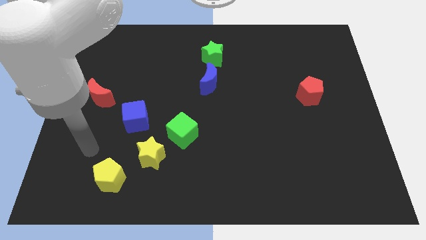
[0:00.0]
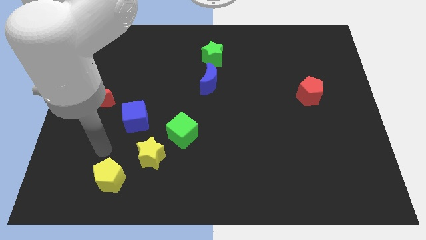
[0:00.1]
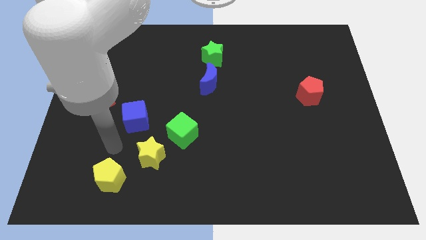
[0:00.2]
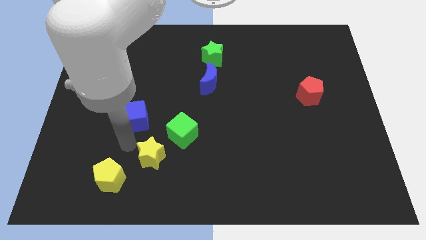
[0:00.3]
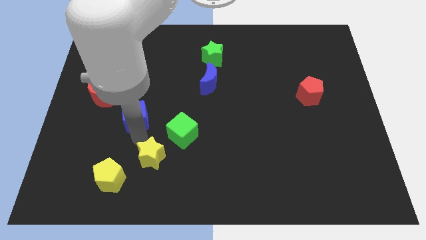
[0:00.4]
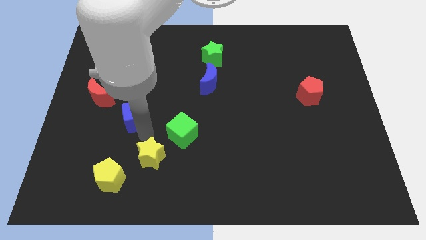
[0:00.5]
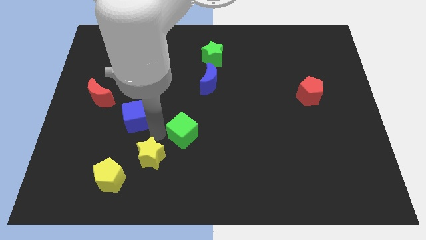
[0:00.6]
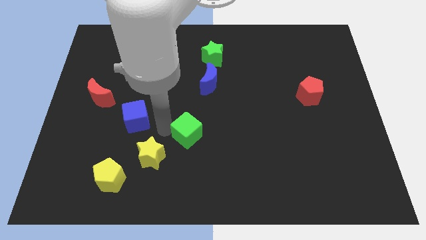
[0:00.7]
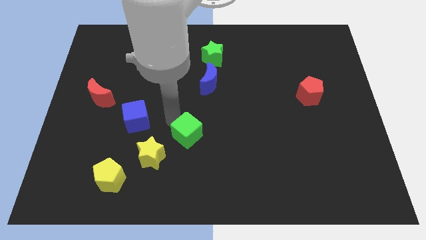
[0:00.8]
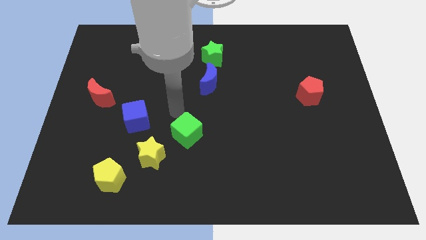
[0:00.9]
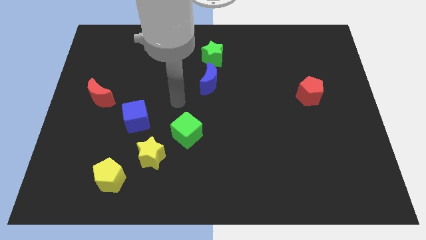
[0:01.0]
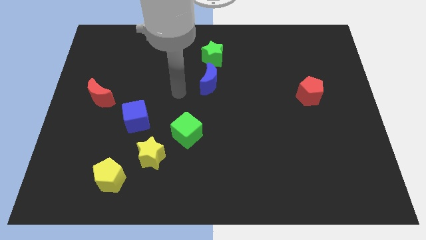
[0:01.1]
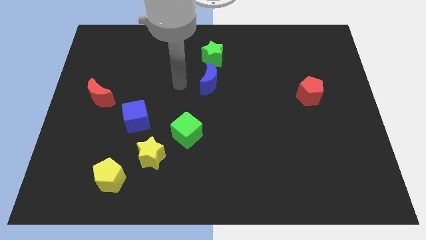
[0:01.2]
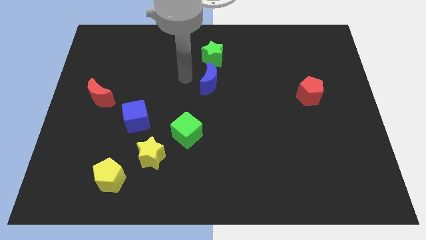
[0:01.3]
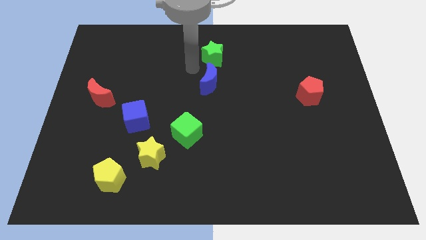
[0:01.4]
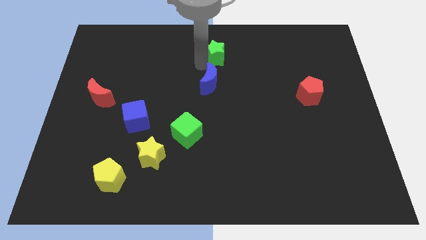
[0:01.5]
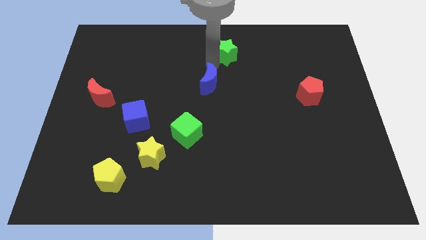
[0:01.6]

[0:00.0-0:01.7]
move the blue moon away from the green star

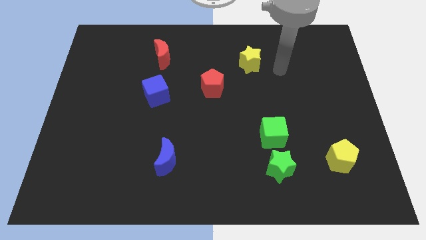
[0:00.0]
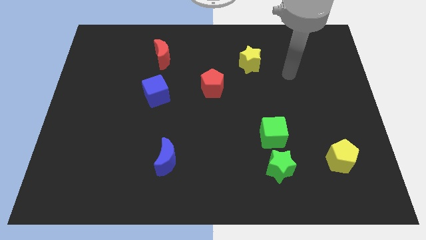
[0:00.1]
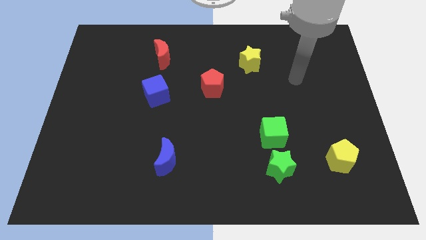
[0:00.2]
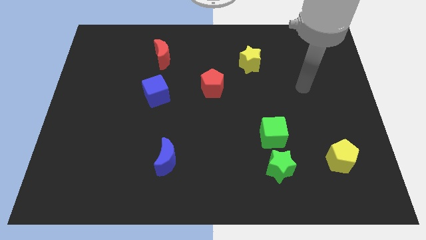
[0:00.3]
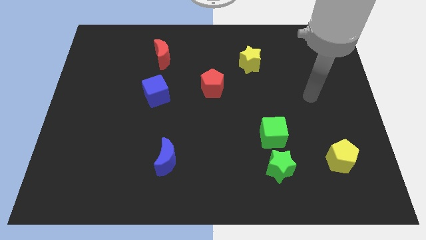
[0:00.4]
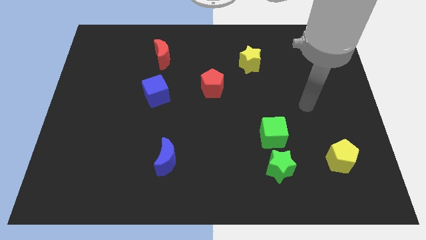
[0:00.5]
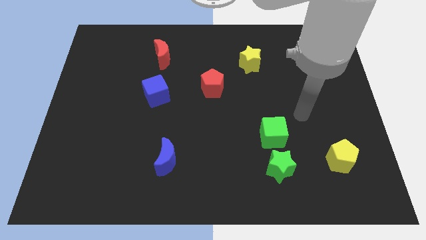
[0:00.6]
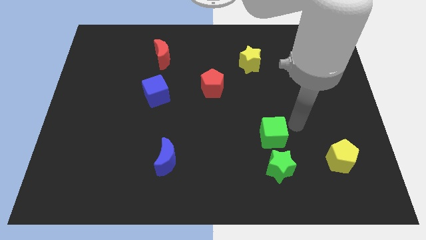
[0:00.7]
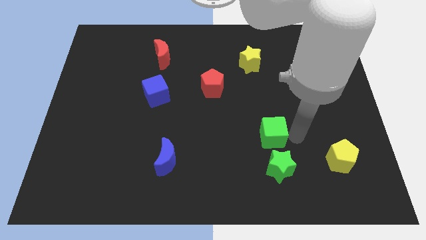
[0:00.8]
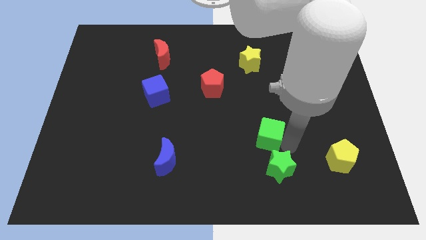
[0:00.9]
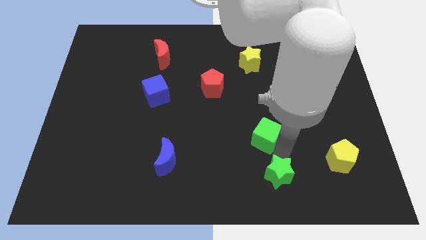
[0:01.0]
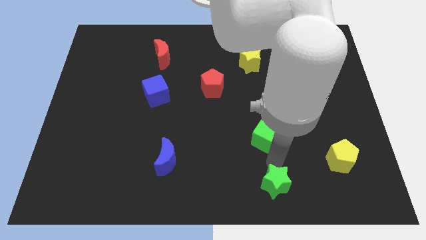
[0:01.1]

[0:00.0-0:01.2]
move the green cube away from the green star

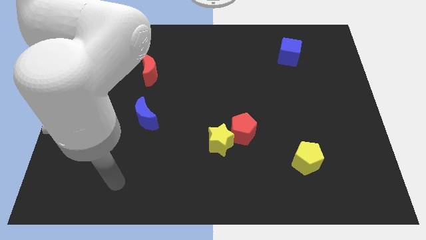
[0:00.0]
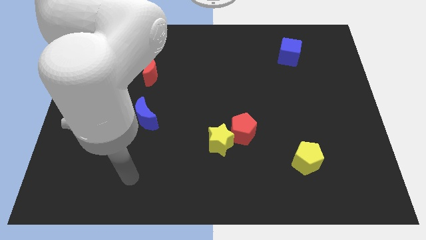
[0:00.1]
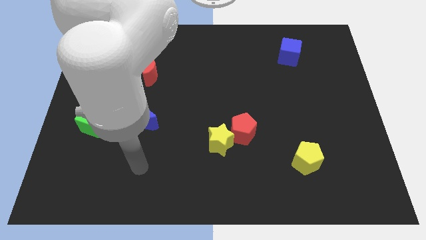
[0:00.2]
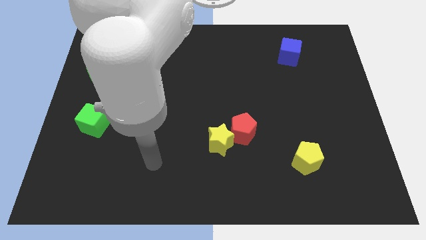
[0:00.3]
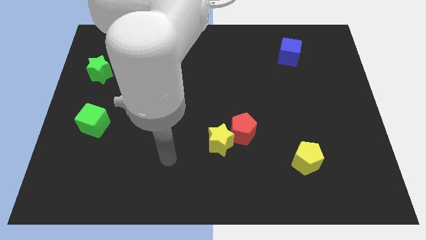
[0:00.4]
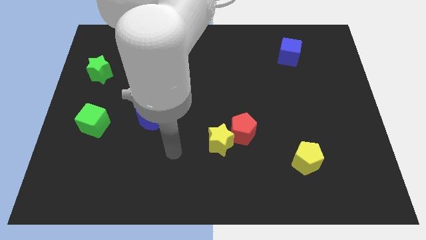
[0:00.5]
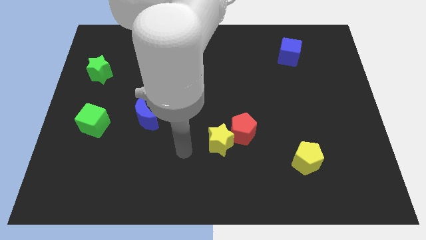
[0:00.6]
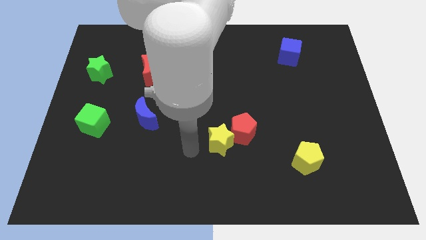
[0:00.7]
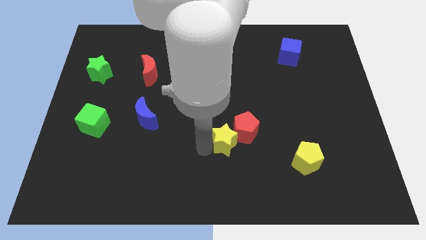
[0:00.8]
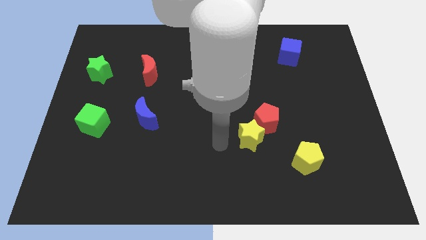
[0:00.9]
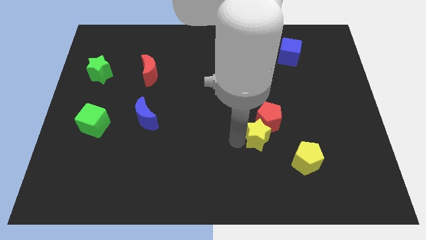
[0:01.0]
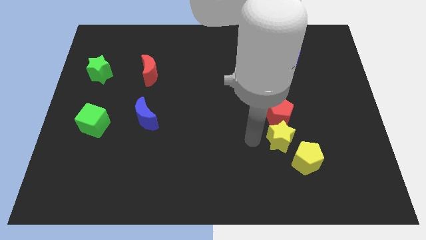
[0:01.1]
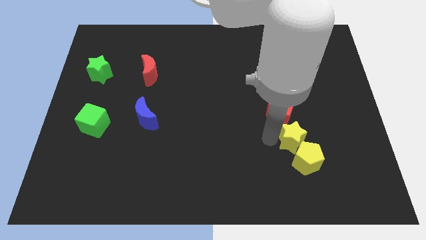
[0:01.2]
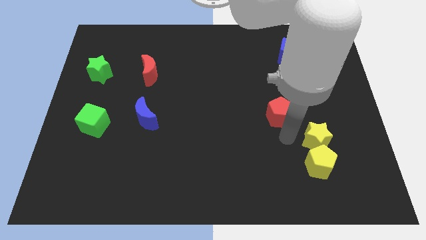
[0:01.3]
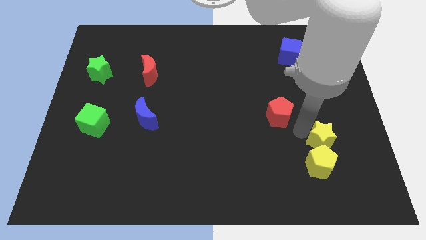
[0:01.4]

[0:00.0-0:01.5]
pull the red pentagon apart from the yellow star

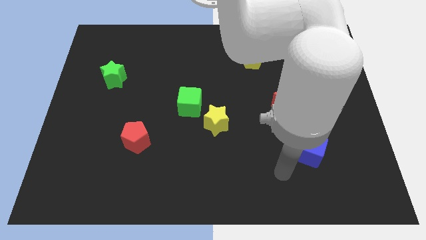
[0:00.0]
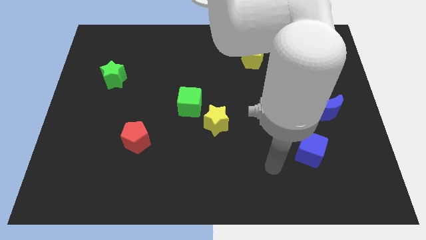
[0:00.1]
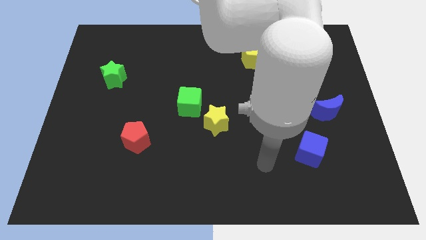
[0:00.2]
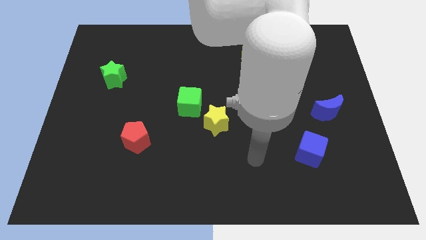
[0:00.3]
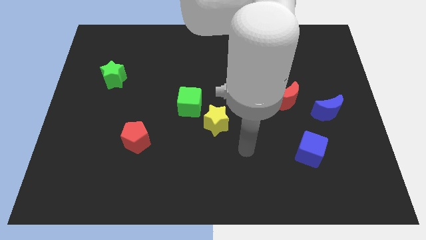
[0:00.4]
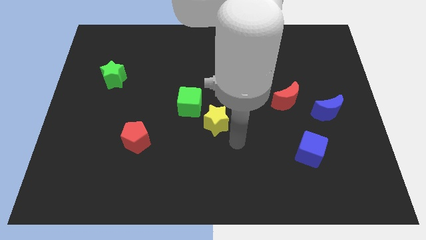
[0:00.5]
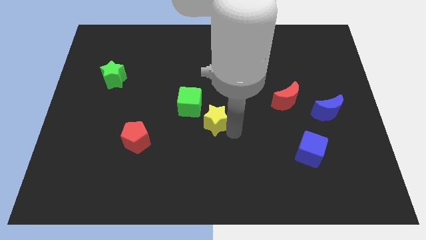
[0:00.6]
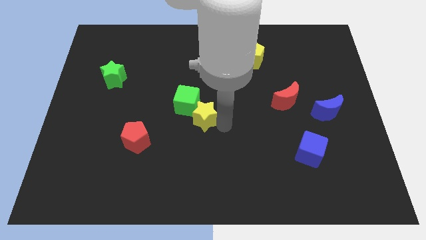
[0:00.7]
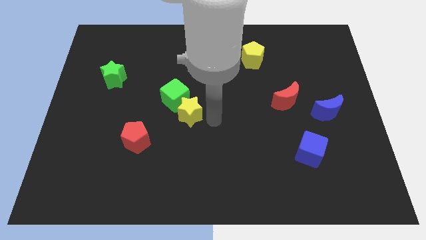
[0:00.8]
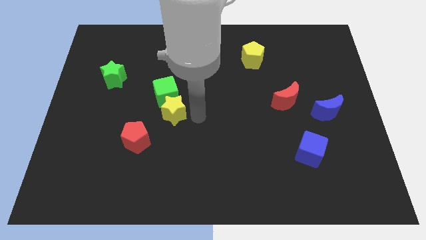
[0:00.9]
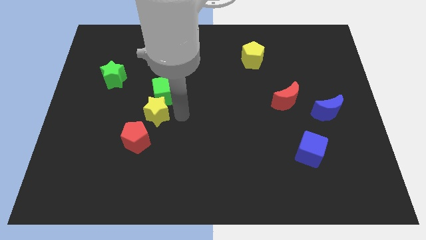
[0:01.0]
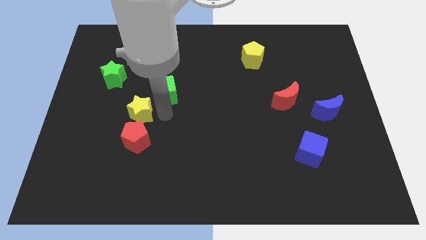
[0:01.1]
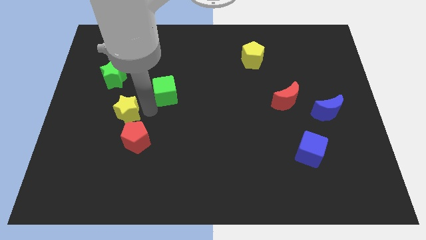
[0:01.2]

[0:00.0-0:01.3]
move the green cube away from the yellow star

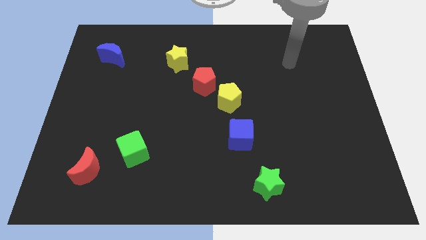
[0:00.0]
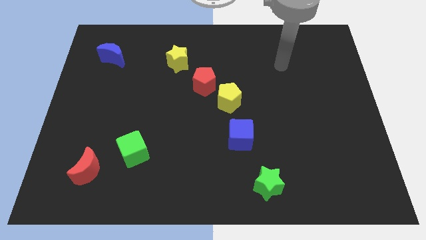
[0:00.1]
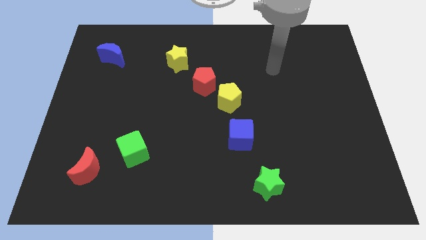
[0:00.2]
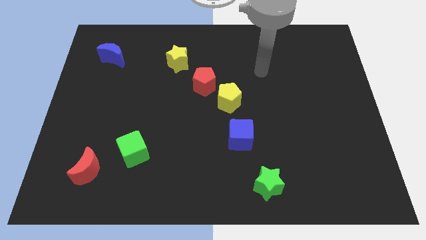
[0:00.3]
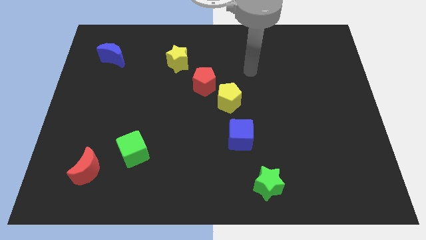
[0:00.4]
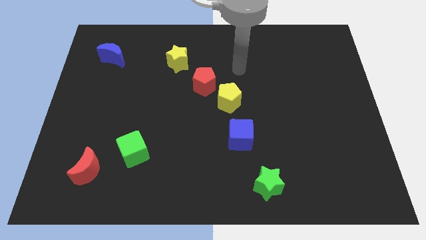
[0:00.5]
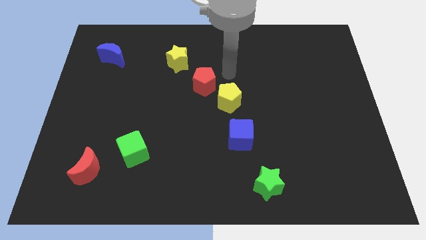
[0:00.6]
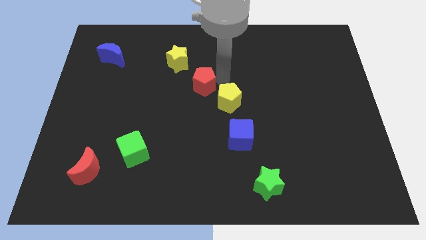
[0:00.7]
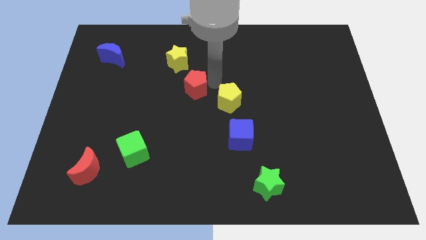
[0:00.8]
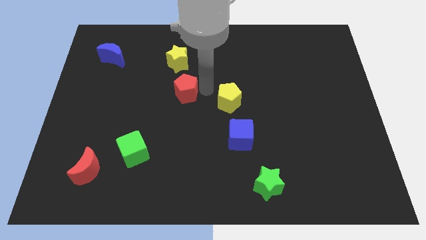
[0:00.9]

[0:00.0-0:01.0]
pull the yellow pentagon apart from the red pentagon

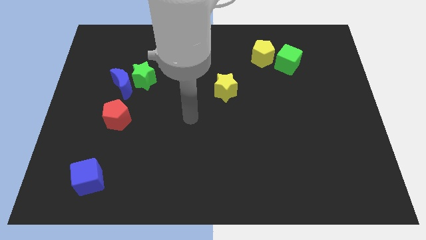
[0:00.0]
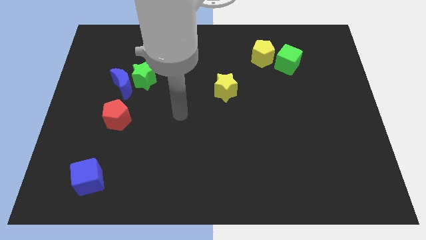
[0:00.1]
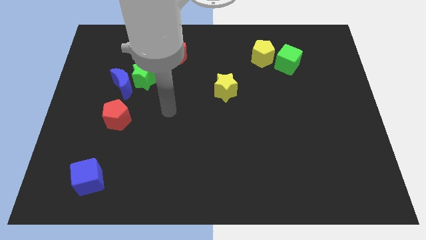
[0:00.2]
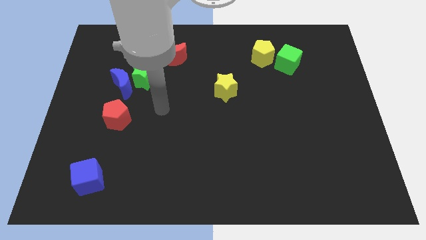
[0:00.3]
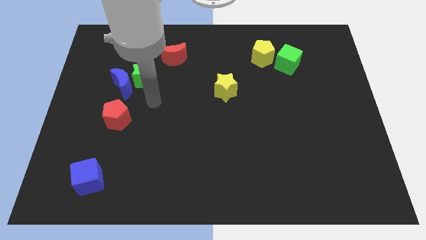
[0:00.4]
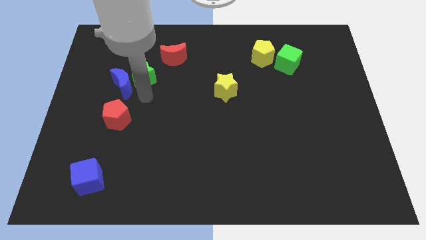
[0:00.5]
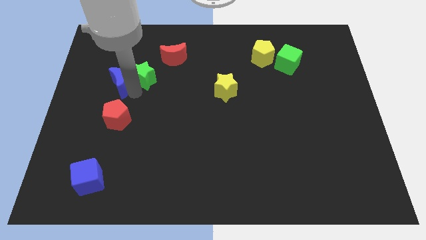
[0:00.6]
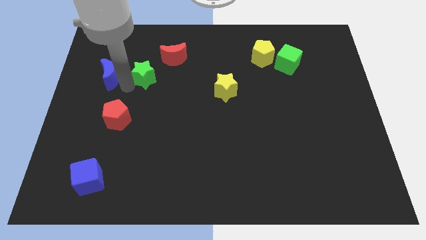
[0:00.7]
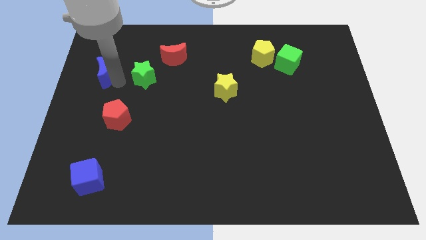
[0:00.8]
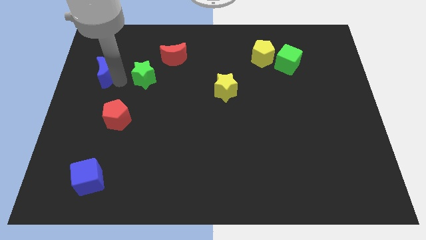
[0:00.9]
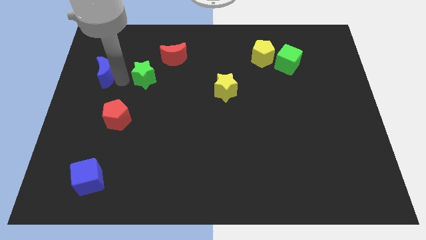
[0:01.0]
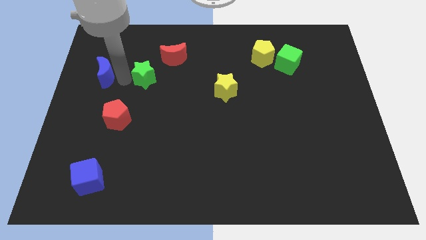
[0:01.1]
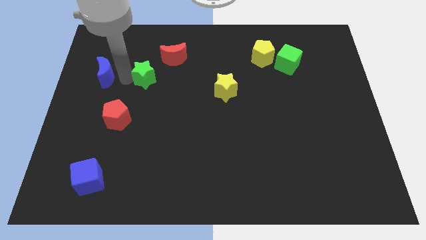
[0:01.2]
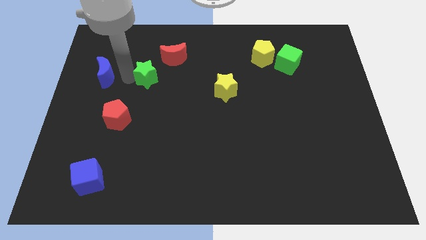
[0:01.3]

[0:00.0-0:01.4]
move the green star away from the blue moon

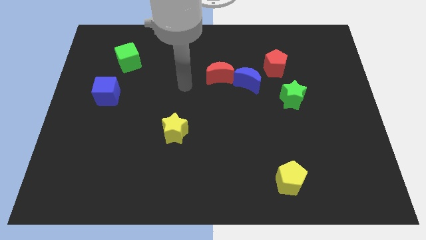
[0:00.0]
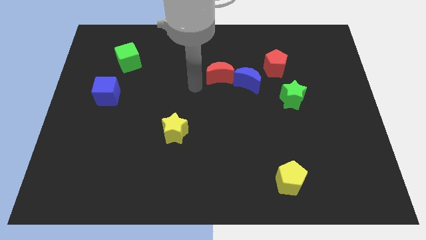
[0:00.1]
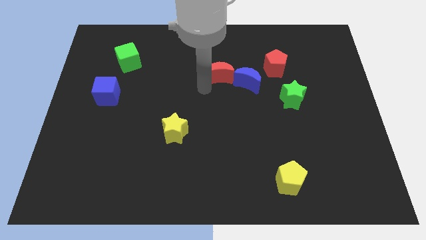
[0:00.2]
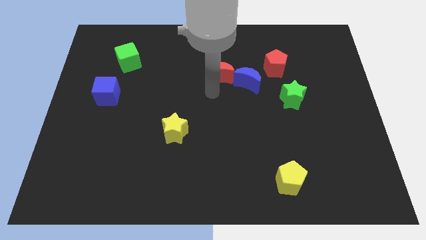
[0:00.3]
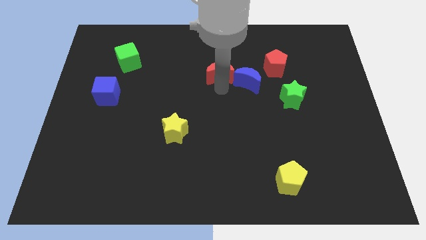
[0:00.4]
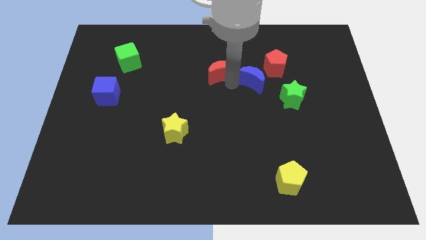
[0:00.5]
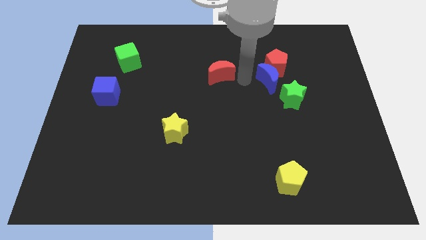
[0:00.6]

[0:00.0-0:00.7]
pull the red moon apart from the blue moon

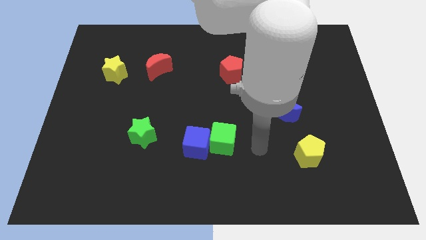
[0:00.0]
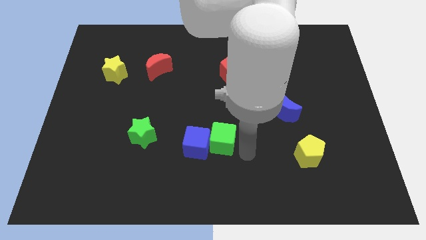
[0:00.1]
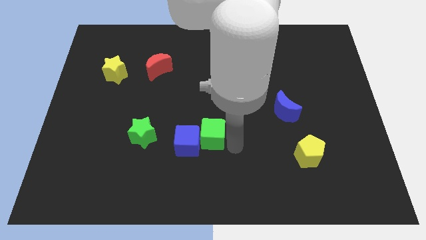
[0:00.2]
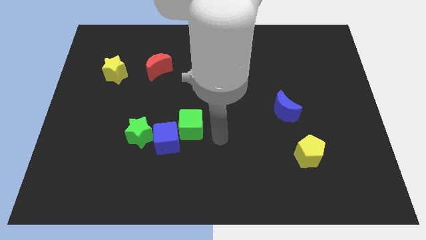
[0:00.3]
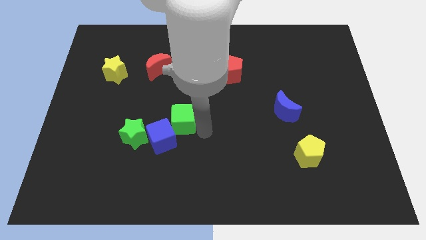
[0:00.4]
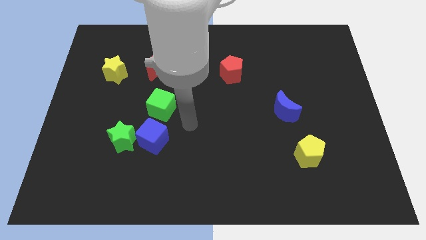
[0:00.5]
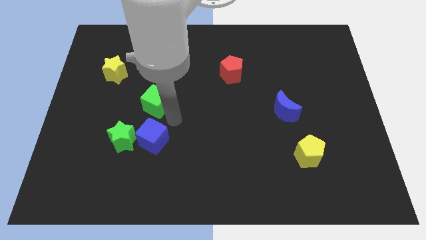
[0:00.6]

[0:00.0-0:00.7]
move the blue cube away from the green cube

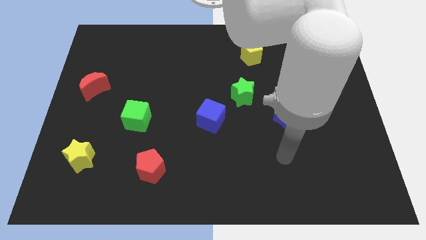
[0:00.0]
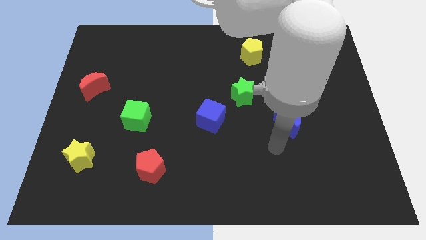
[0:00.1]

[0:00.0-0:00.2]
separate the blue cube from the green star
